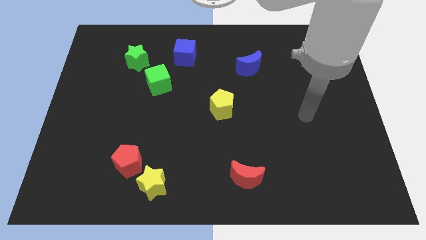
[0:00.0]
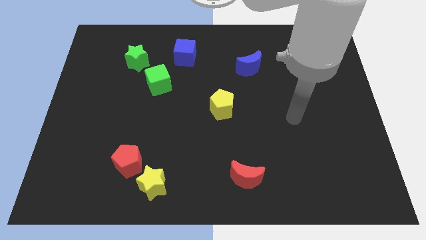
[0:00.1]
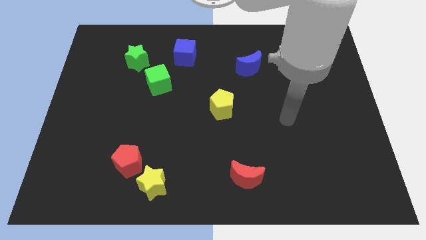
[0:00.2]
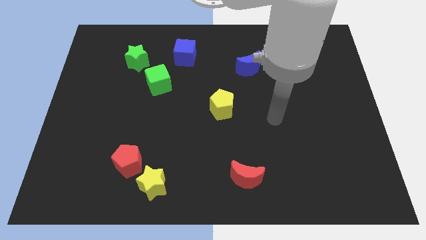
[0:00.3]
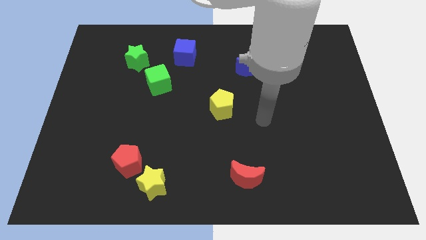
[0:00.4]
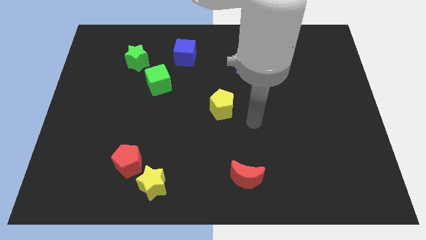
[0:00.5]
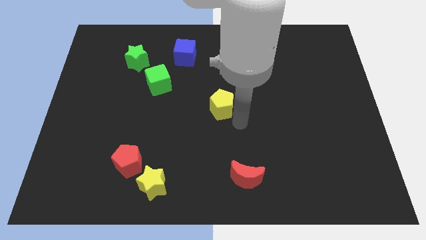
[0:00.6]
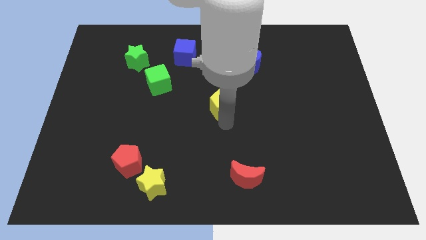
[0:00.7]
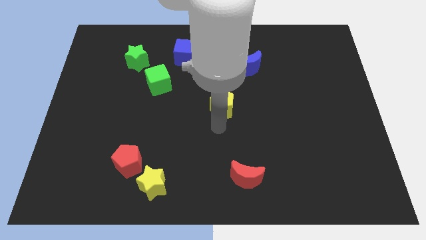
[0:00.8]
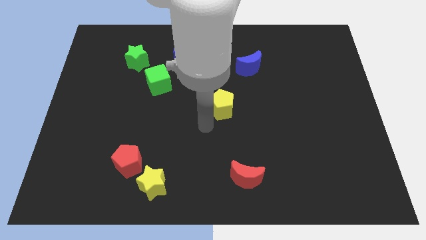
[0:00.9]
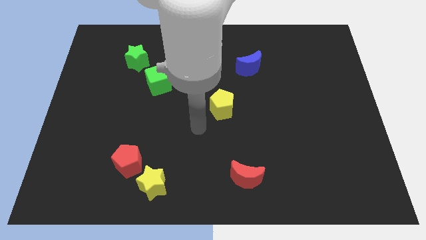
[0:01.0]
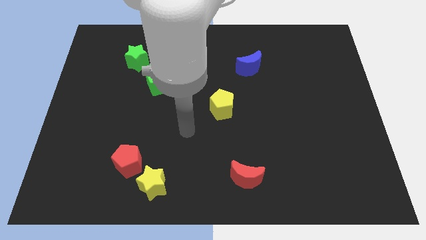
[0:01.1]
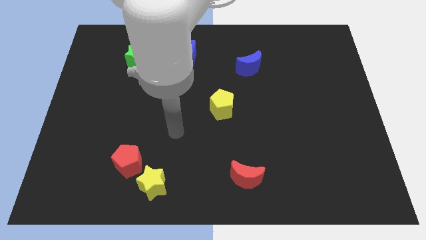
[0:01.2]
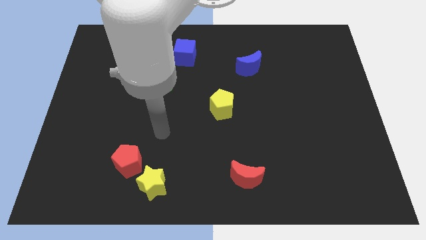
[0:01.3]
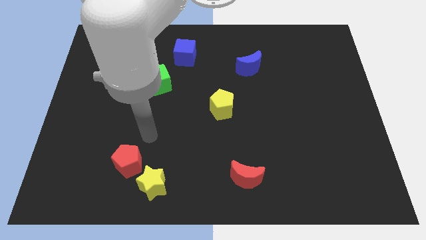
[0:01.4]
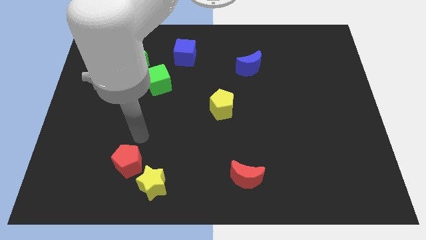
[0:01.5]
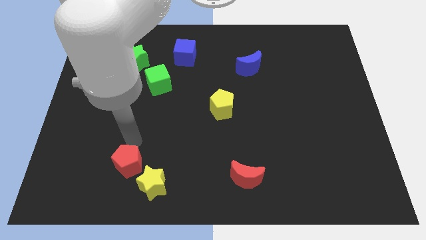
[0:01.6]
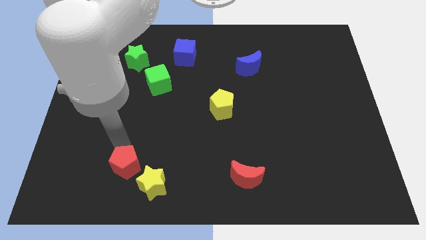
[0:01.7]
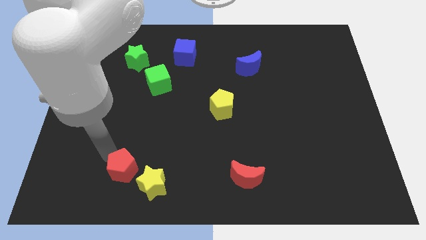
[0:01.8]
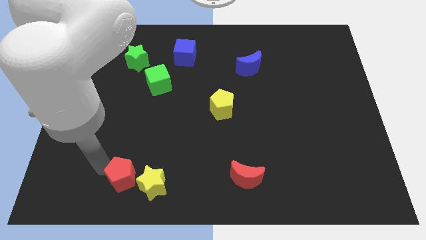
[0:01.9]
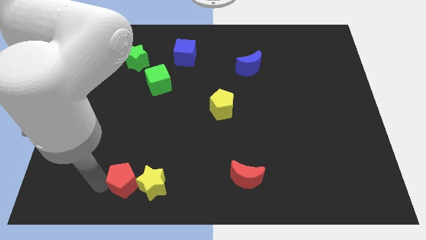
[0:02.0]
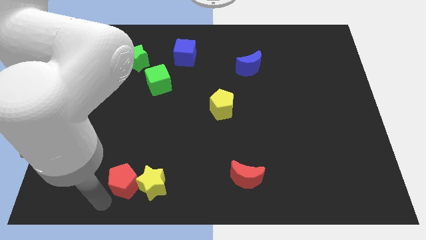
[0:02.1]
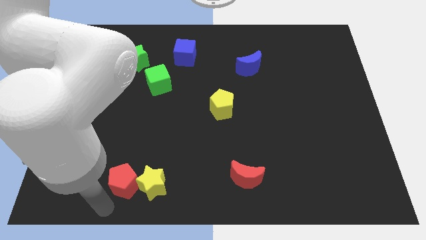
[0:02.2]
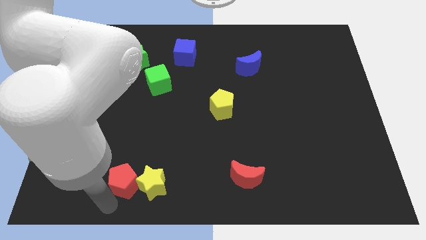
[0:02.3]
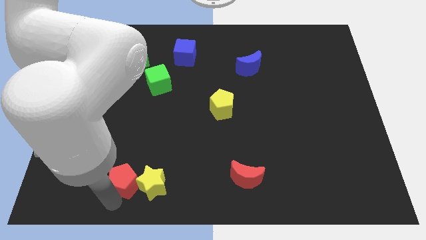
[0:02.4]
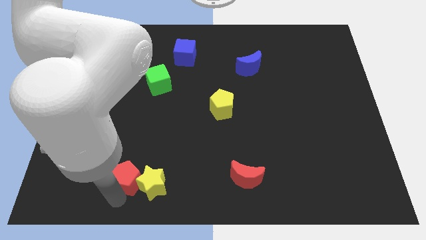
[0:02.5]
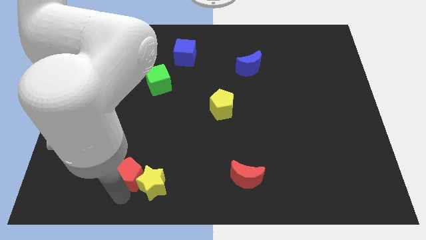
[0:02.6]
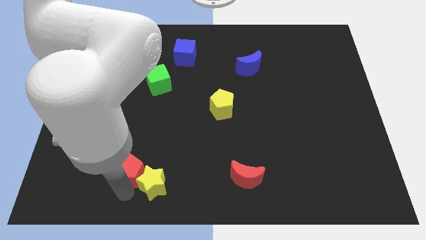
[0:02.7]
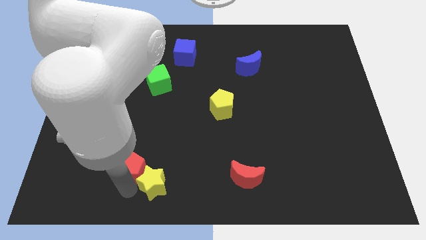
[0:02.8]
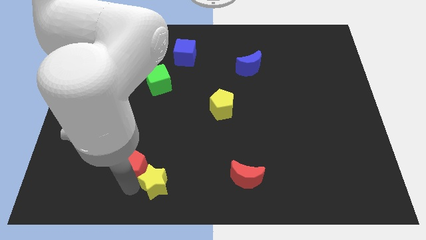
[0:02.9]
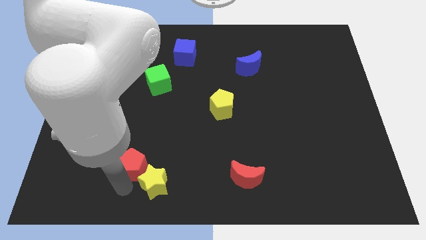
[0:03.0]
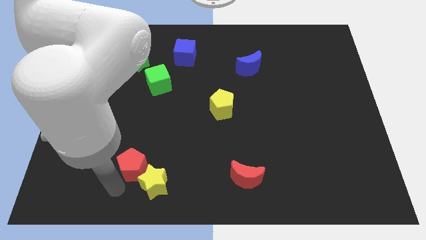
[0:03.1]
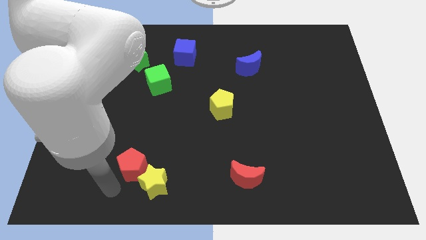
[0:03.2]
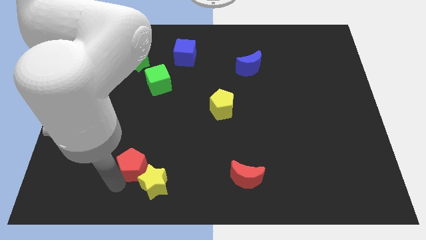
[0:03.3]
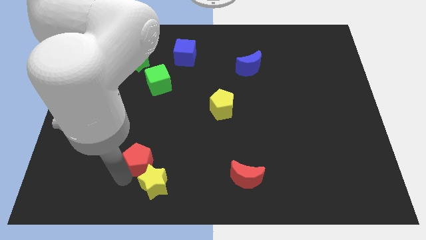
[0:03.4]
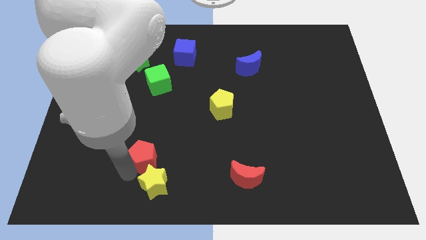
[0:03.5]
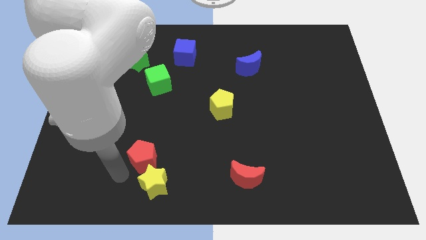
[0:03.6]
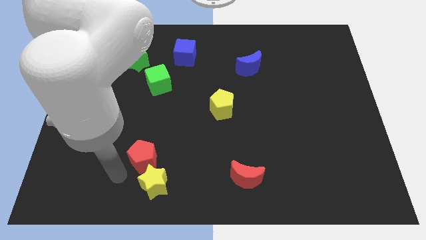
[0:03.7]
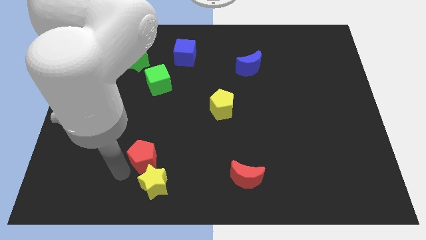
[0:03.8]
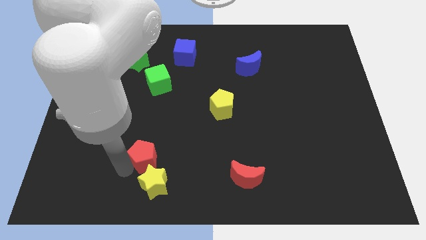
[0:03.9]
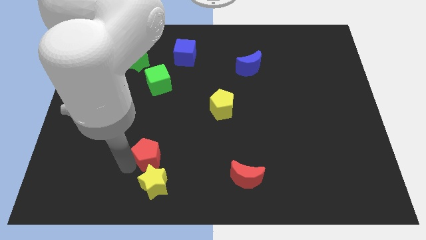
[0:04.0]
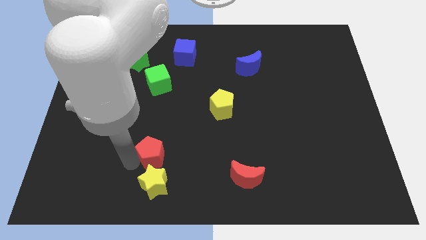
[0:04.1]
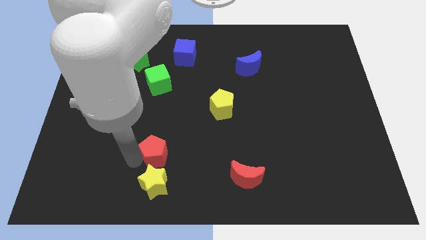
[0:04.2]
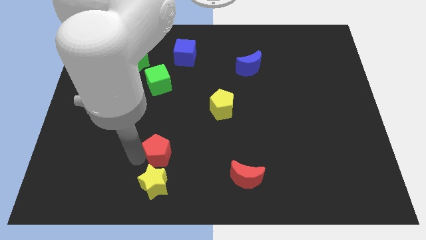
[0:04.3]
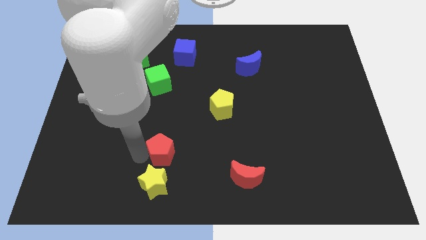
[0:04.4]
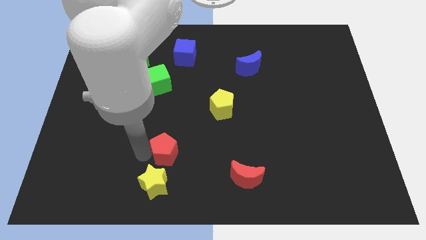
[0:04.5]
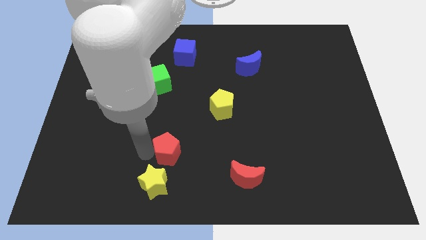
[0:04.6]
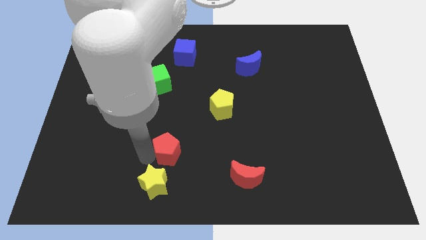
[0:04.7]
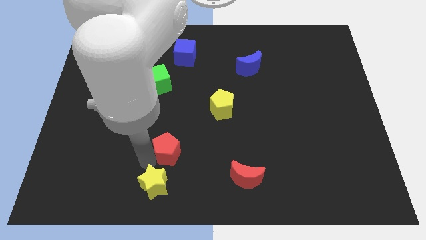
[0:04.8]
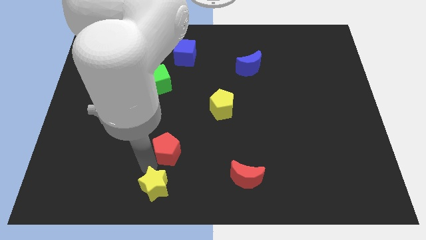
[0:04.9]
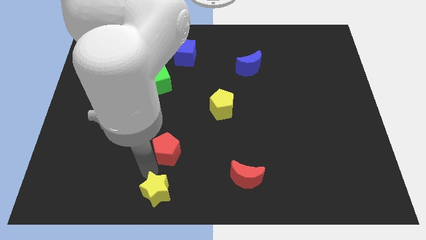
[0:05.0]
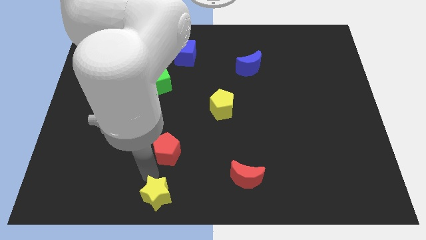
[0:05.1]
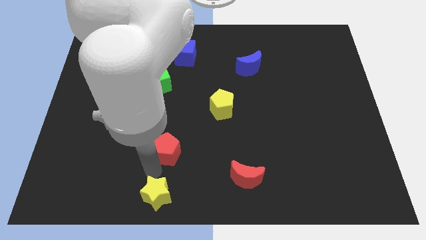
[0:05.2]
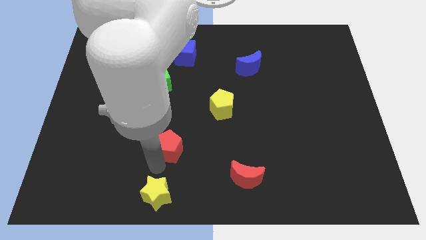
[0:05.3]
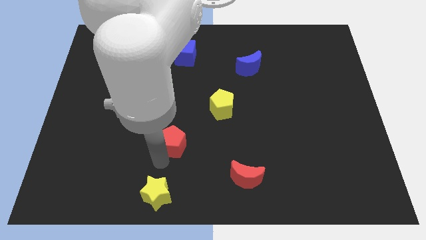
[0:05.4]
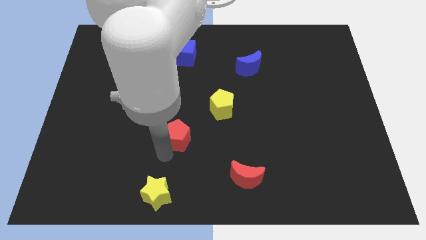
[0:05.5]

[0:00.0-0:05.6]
slide the red pentagon to the bottom left of the yellow pentagon

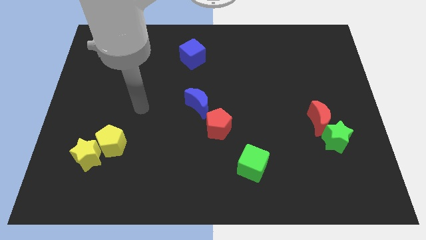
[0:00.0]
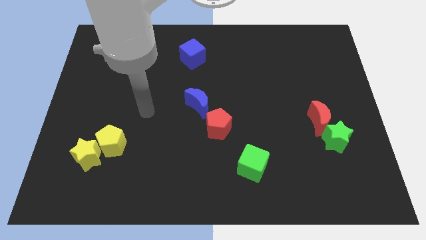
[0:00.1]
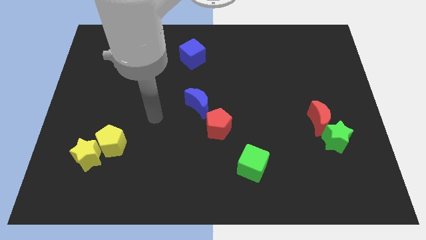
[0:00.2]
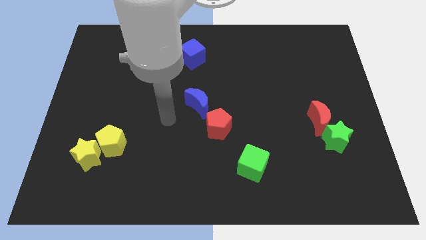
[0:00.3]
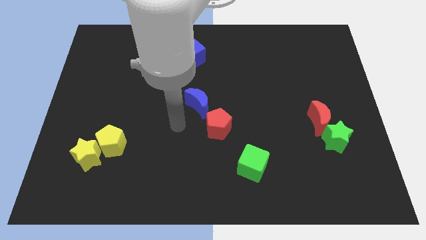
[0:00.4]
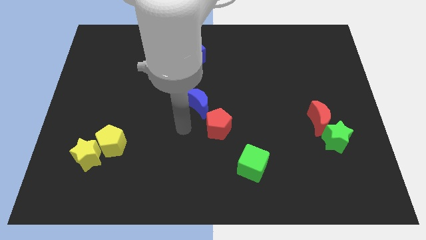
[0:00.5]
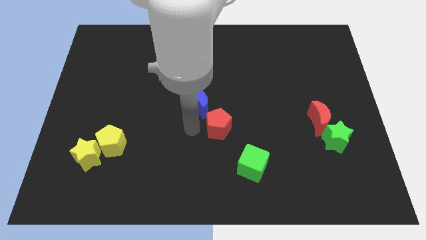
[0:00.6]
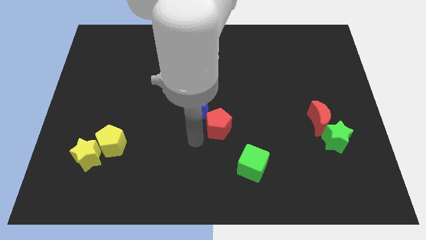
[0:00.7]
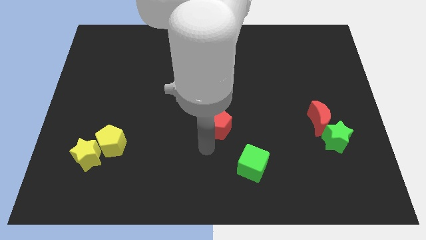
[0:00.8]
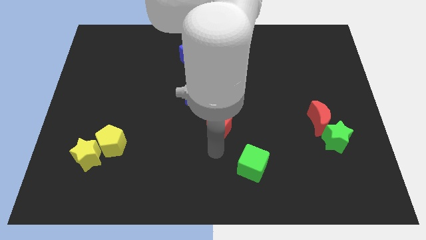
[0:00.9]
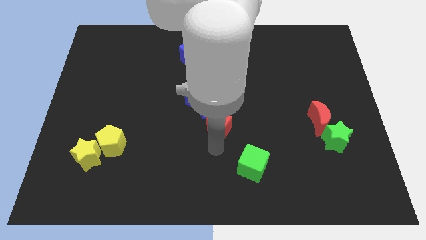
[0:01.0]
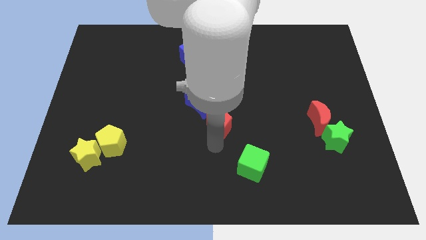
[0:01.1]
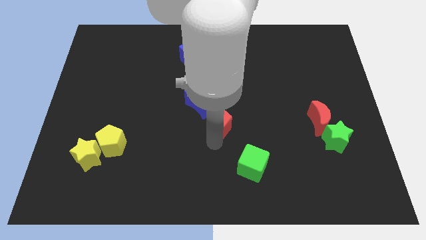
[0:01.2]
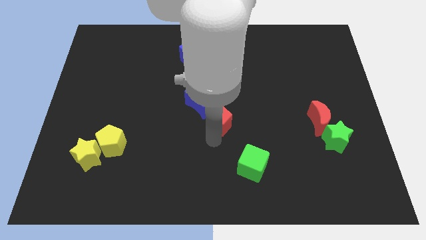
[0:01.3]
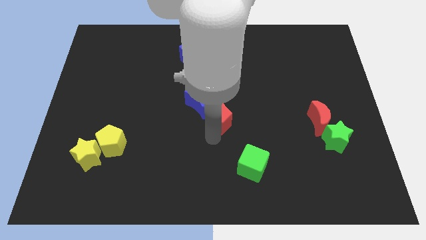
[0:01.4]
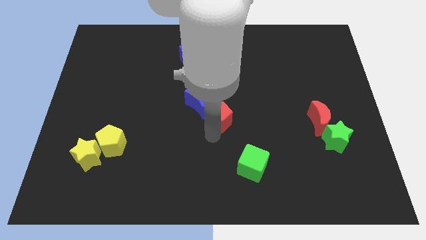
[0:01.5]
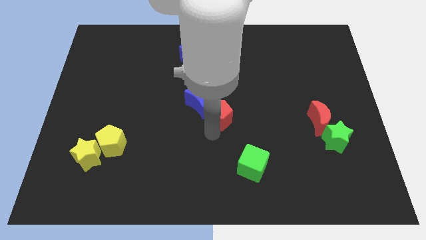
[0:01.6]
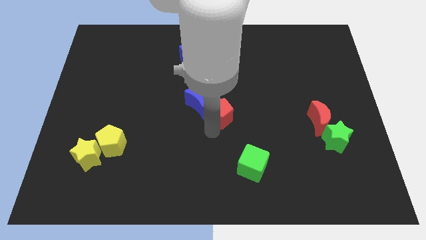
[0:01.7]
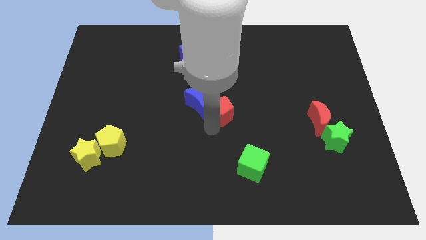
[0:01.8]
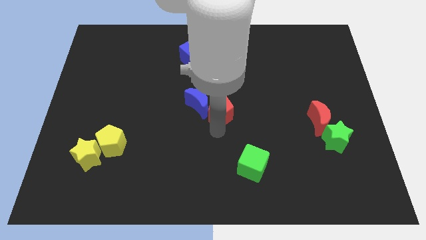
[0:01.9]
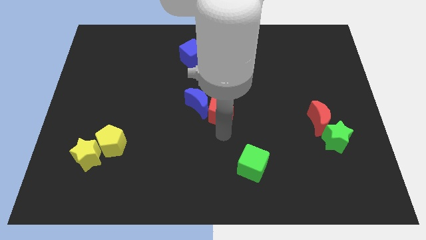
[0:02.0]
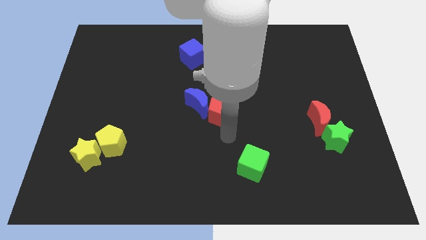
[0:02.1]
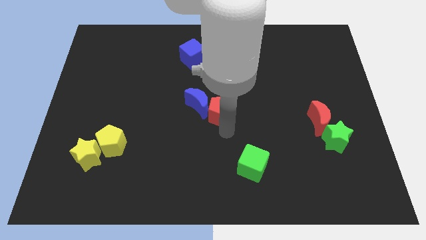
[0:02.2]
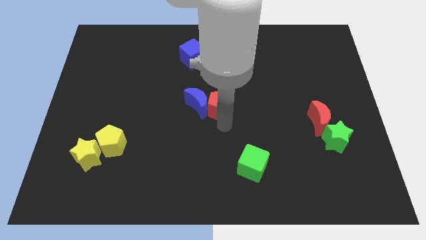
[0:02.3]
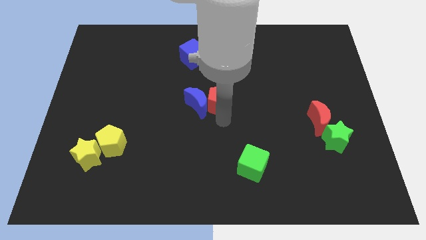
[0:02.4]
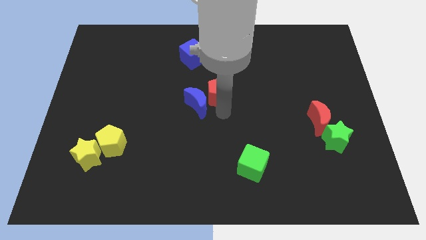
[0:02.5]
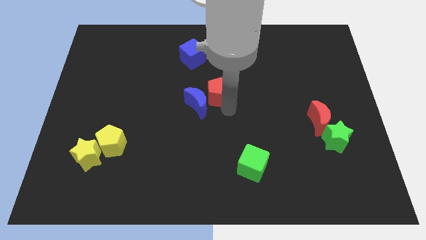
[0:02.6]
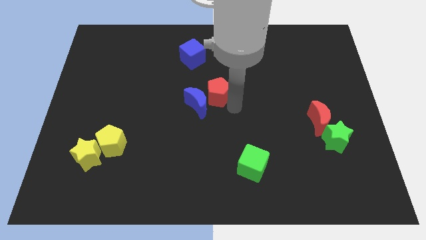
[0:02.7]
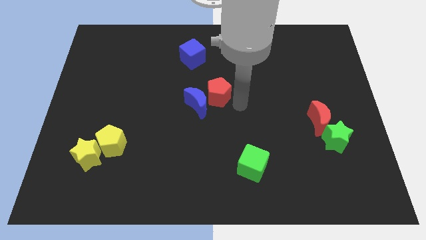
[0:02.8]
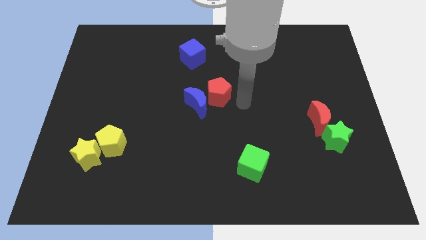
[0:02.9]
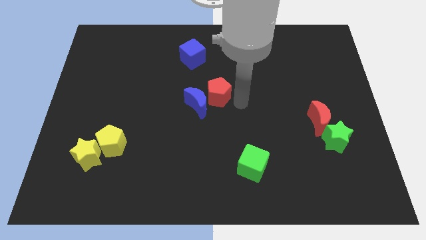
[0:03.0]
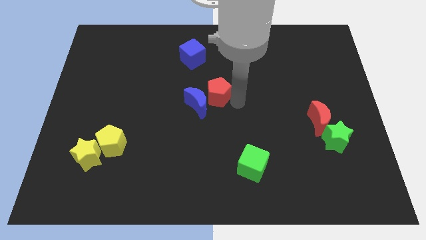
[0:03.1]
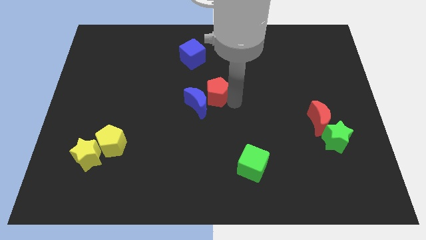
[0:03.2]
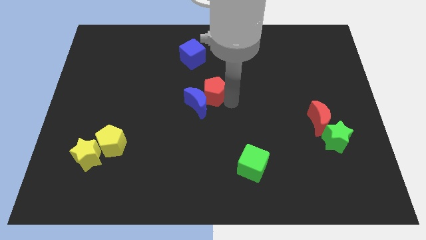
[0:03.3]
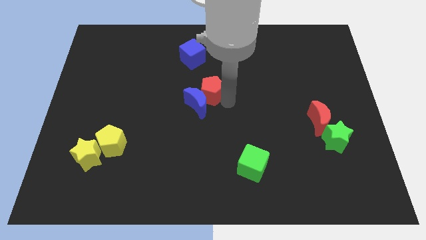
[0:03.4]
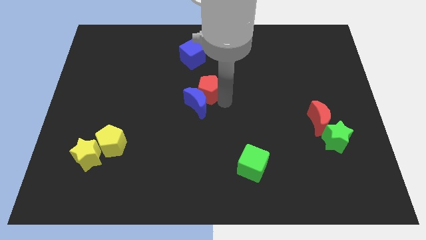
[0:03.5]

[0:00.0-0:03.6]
put the red pentagon to the bottom side of the blue cube
